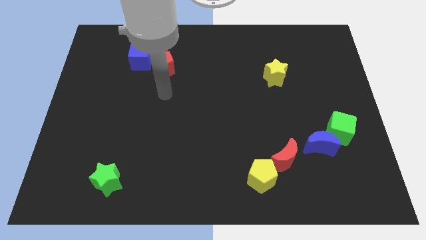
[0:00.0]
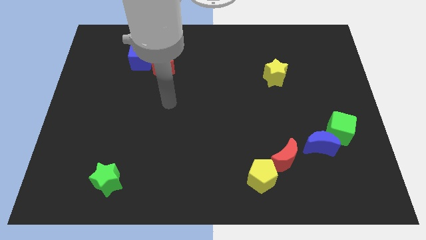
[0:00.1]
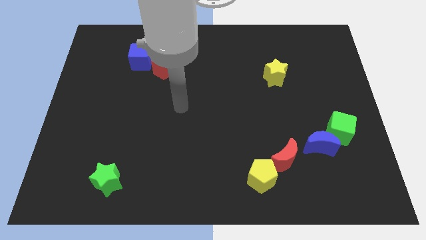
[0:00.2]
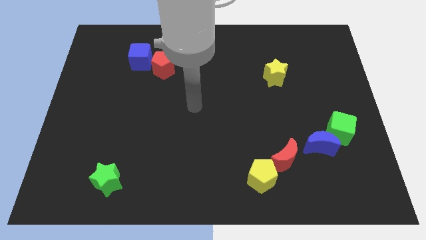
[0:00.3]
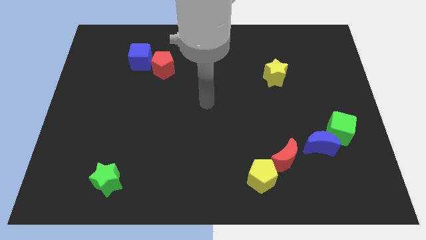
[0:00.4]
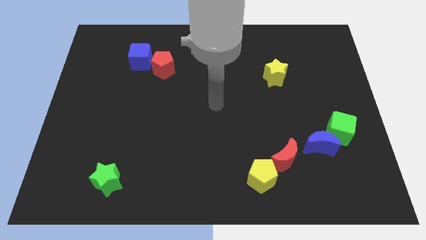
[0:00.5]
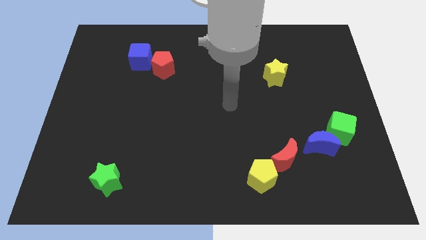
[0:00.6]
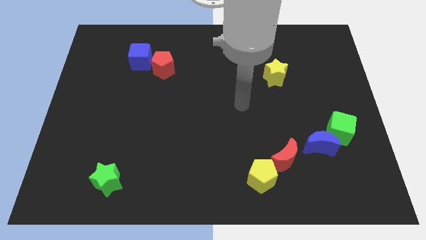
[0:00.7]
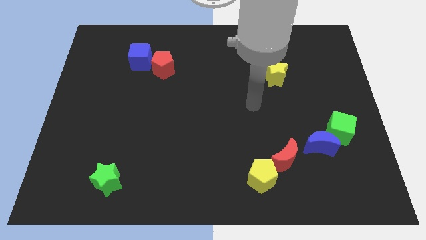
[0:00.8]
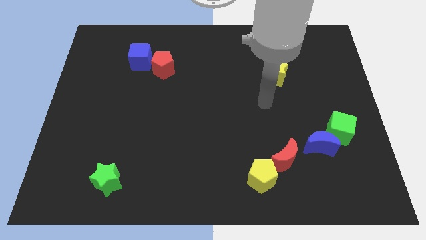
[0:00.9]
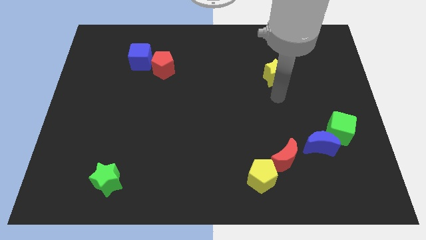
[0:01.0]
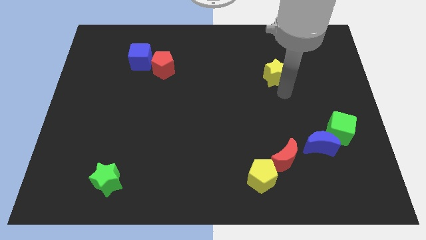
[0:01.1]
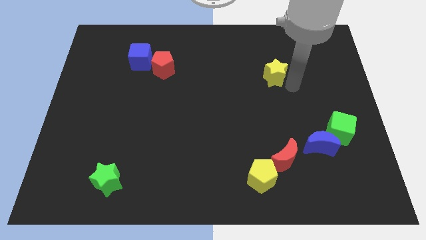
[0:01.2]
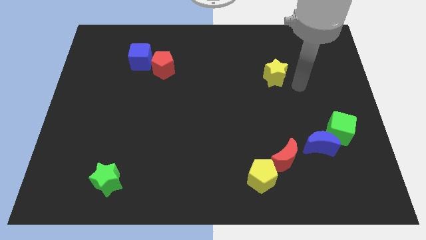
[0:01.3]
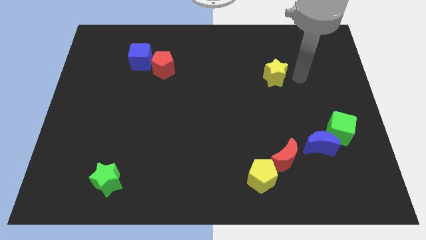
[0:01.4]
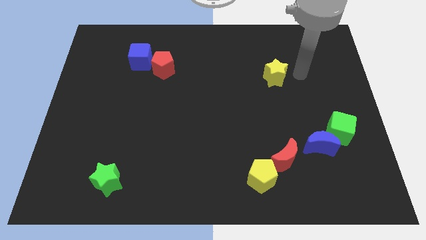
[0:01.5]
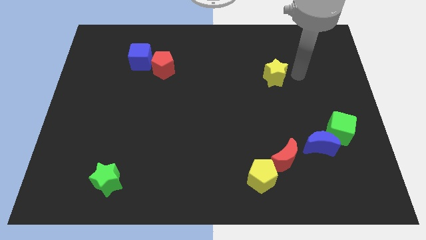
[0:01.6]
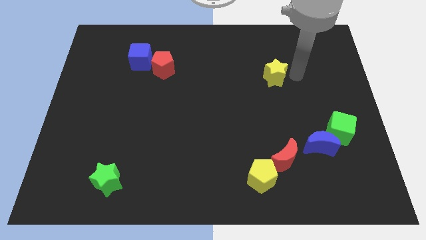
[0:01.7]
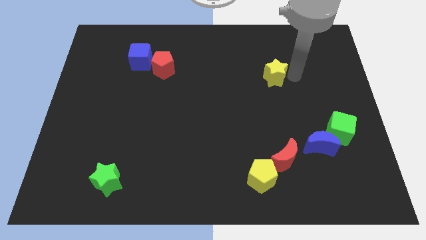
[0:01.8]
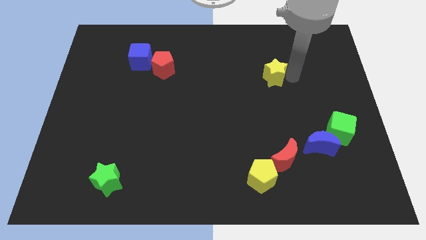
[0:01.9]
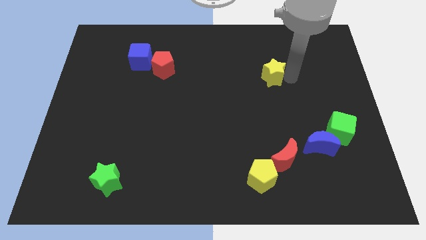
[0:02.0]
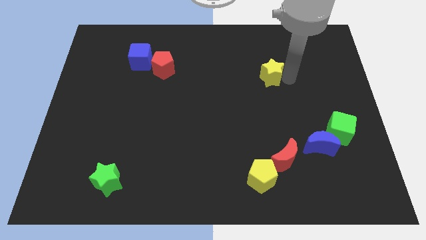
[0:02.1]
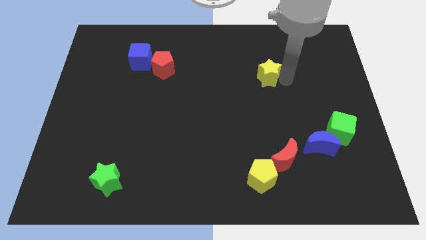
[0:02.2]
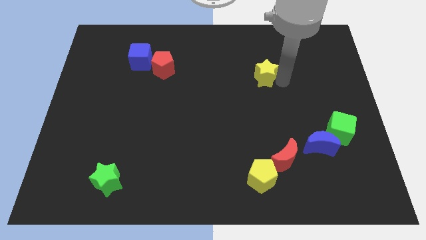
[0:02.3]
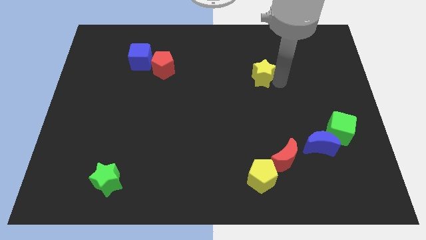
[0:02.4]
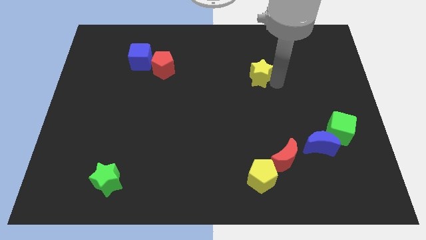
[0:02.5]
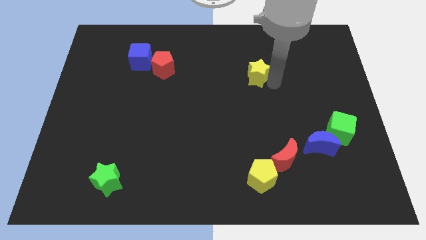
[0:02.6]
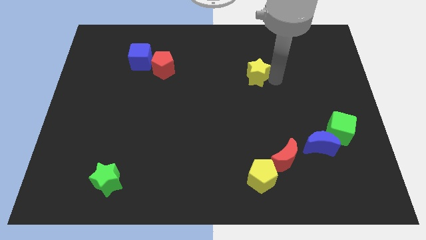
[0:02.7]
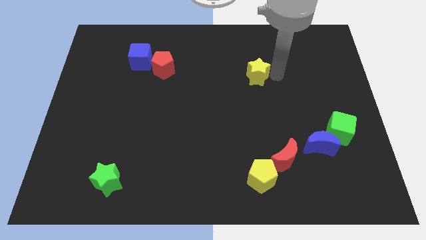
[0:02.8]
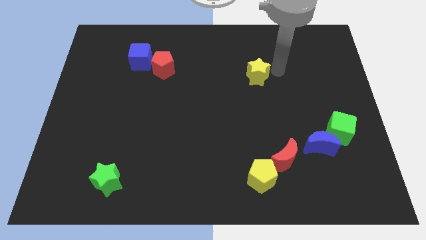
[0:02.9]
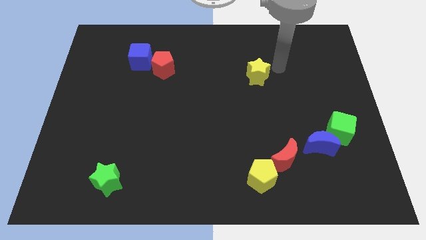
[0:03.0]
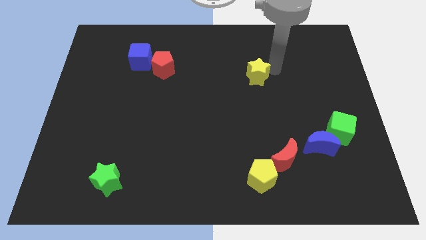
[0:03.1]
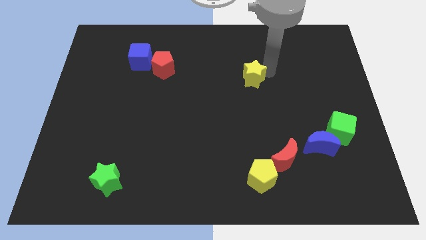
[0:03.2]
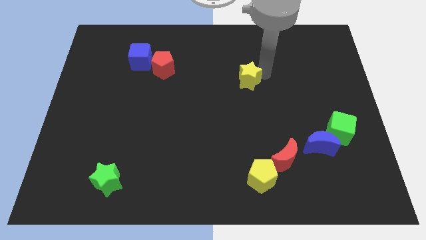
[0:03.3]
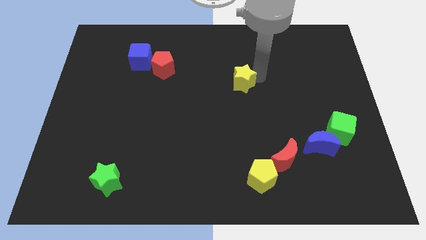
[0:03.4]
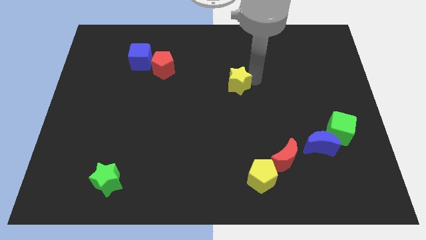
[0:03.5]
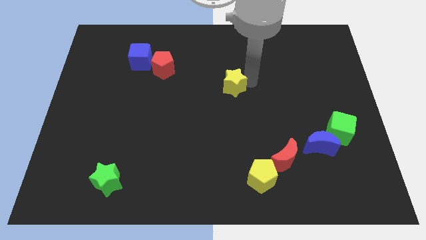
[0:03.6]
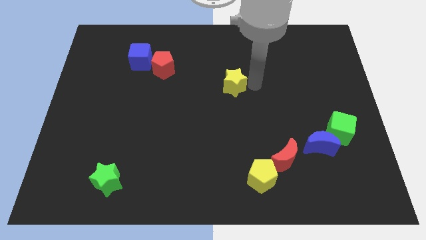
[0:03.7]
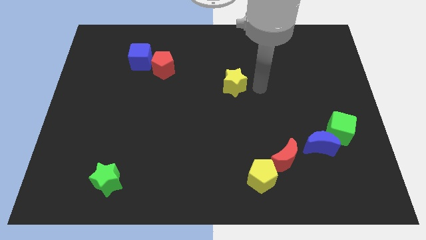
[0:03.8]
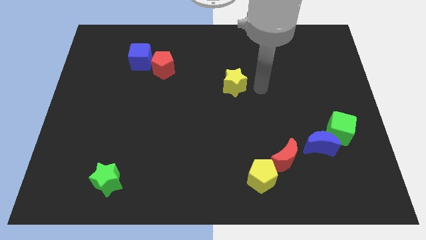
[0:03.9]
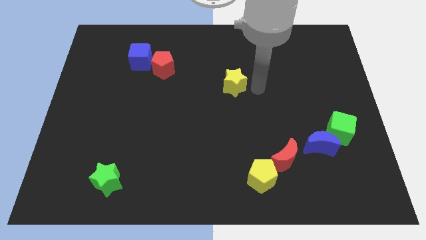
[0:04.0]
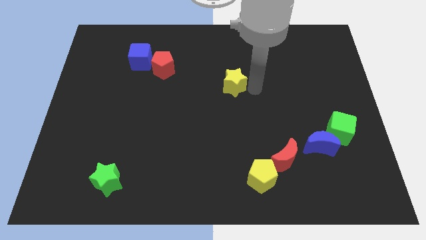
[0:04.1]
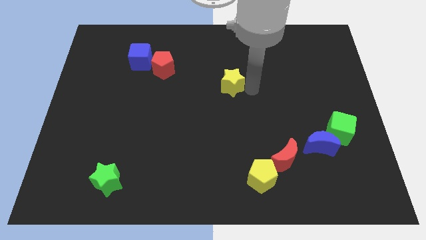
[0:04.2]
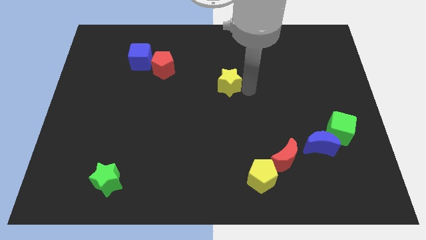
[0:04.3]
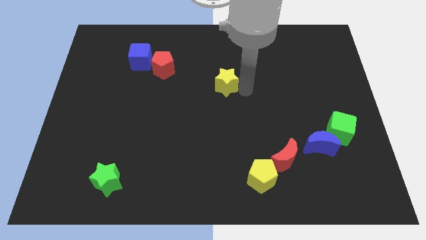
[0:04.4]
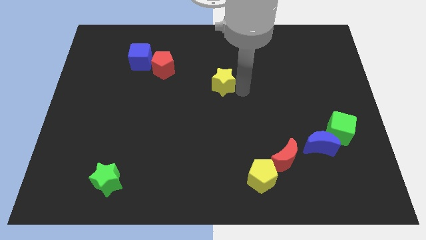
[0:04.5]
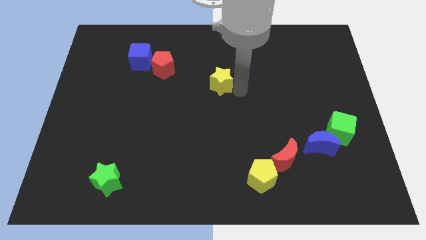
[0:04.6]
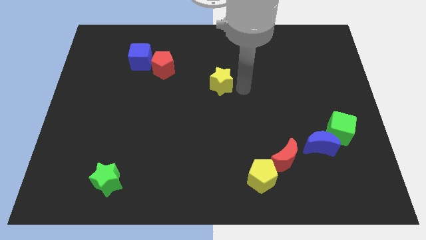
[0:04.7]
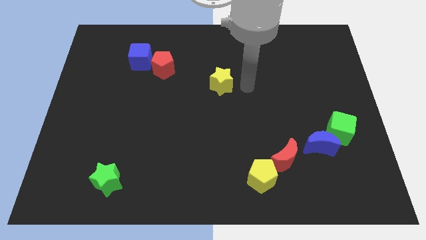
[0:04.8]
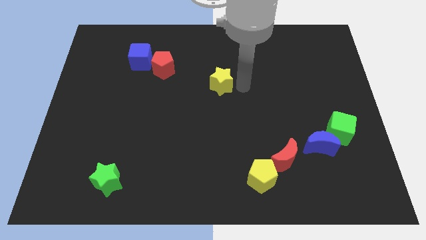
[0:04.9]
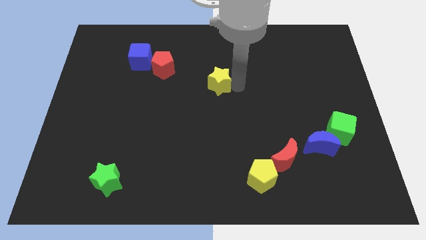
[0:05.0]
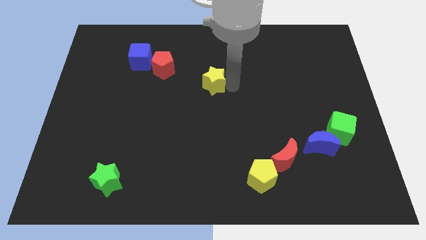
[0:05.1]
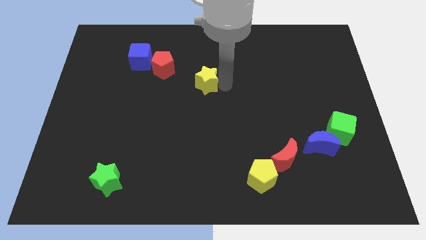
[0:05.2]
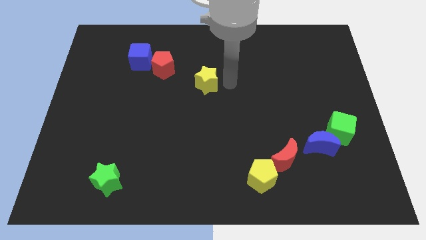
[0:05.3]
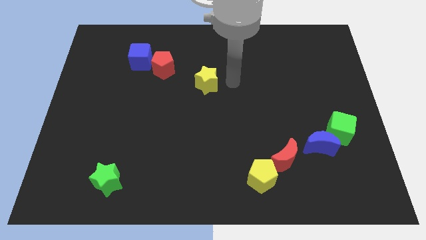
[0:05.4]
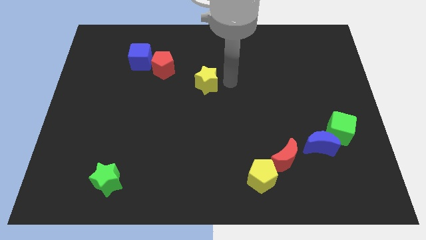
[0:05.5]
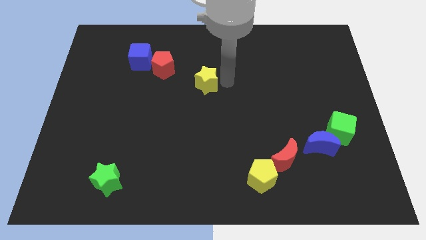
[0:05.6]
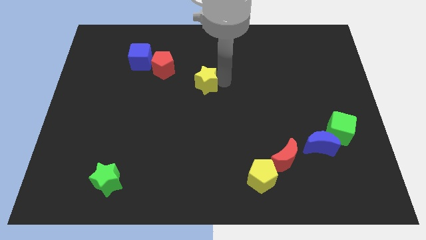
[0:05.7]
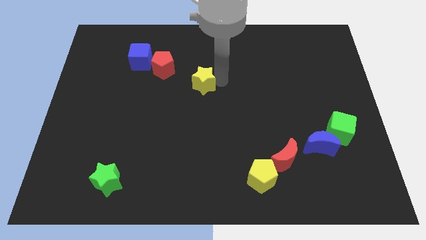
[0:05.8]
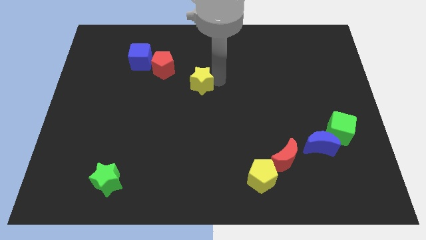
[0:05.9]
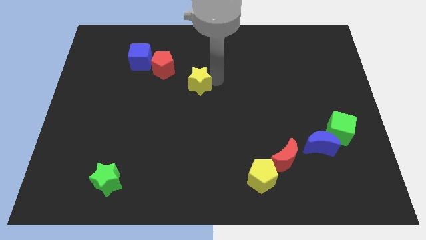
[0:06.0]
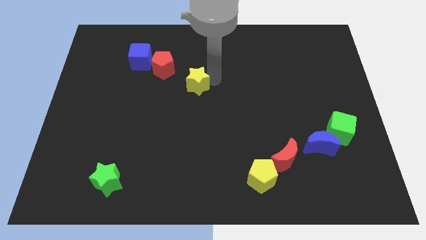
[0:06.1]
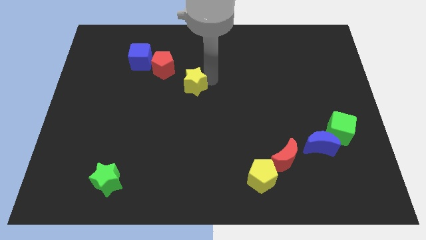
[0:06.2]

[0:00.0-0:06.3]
move the yellow star to the left

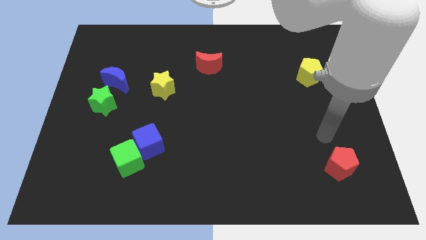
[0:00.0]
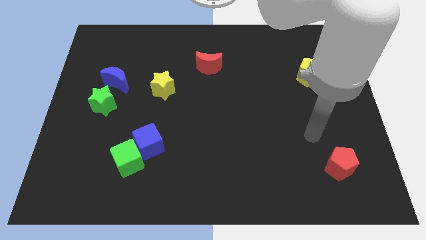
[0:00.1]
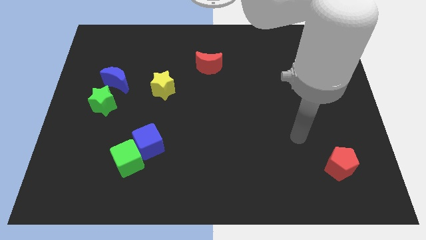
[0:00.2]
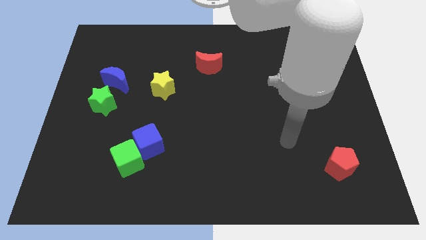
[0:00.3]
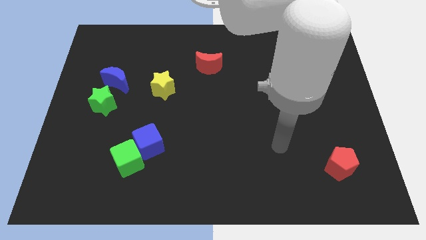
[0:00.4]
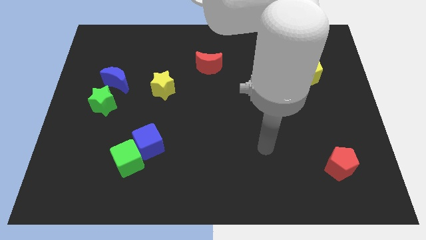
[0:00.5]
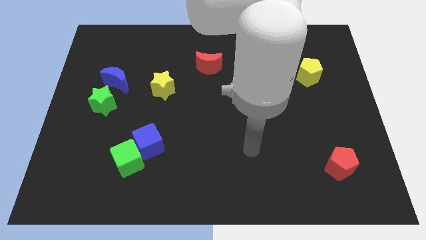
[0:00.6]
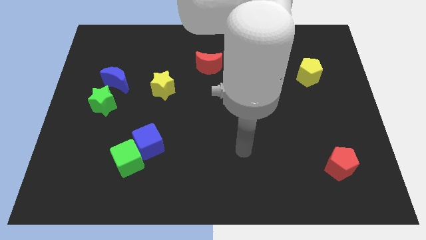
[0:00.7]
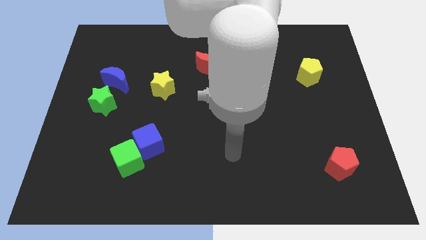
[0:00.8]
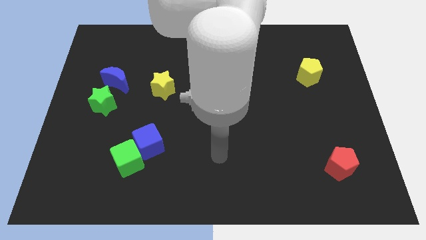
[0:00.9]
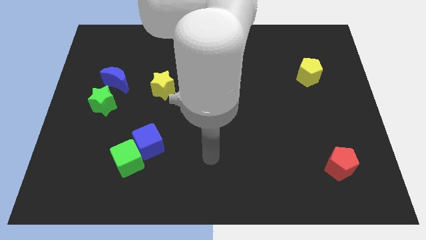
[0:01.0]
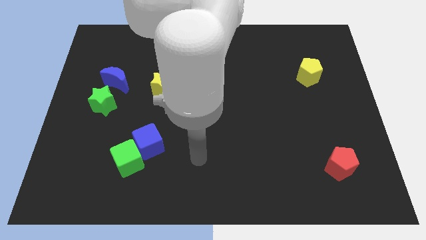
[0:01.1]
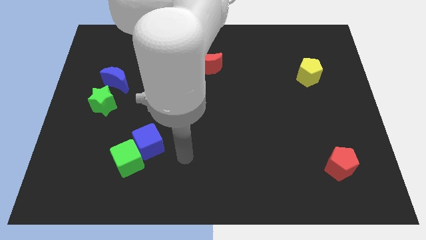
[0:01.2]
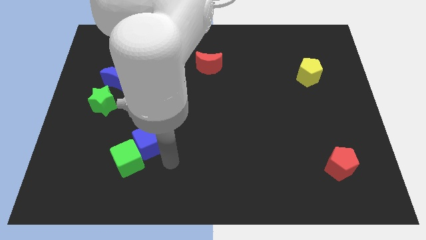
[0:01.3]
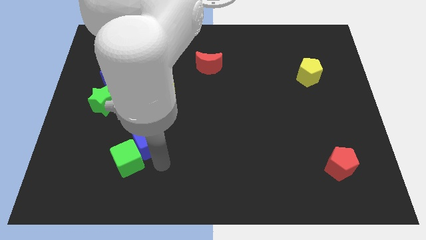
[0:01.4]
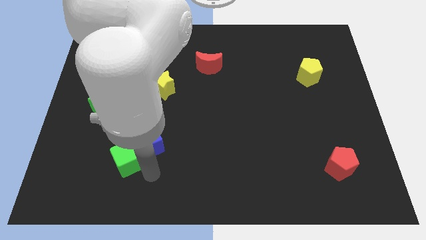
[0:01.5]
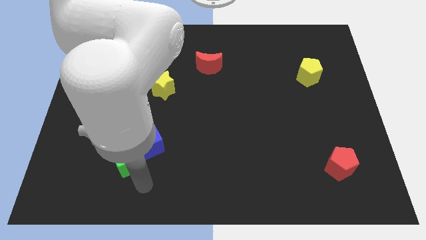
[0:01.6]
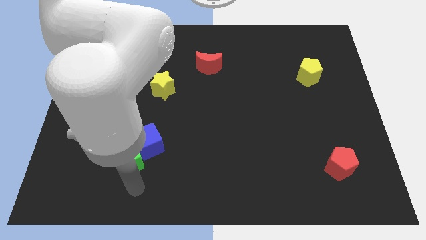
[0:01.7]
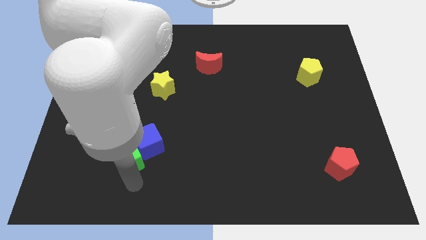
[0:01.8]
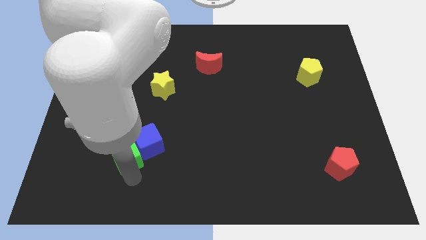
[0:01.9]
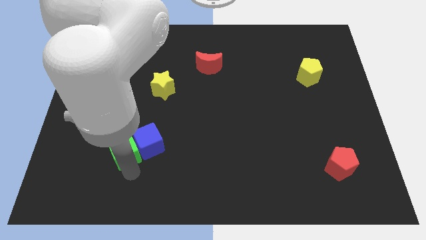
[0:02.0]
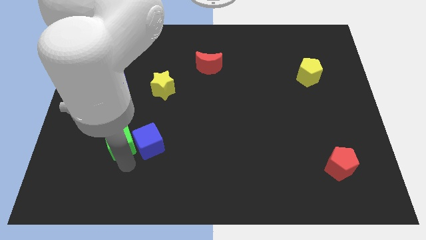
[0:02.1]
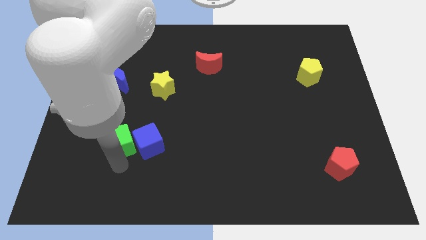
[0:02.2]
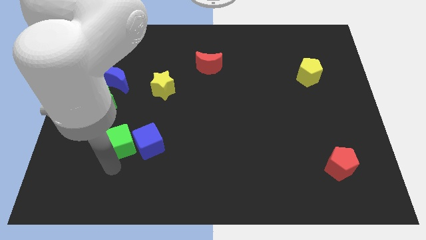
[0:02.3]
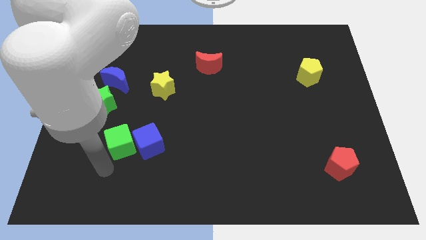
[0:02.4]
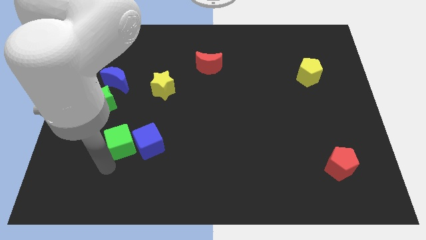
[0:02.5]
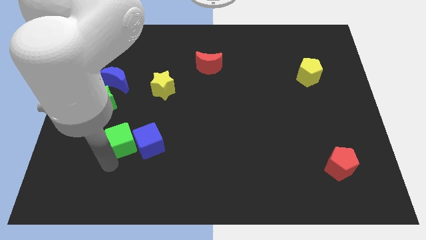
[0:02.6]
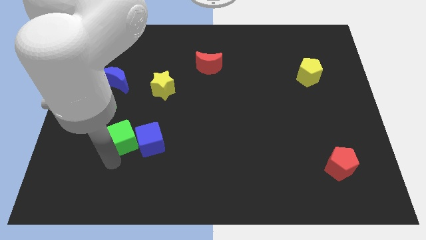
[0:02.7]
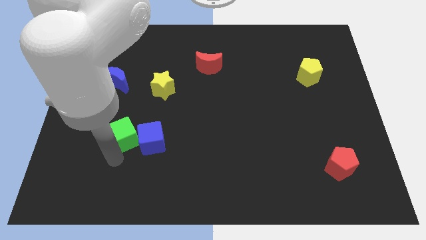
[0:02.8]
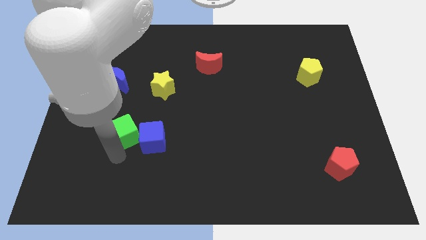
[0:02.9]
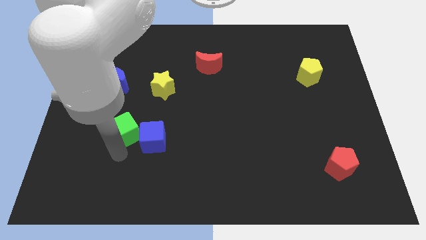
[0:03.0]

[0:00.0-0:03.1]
slide the green cube upwards slightly
